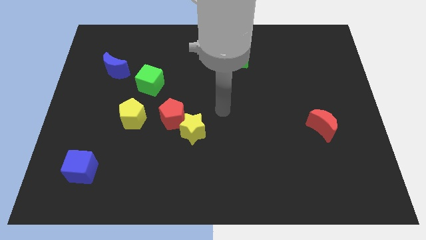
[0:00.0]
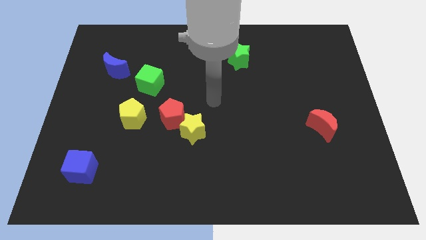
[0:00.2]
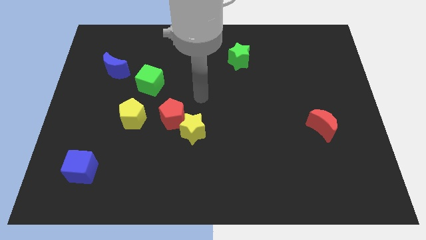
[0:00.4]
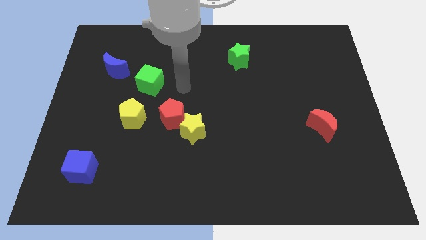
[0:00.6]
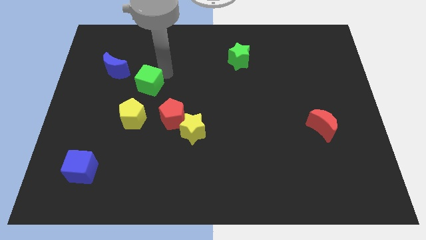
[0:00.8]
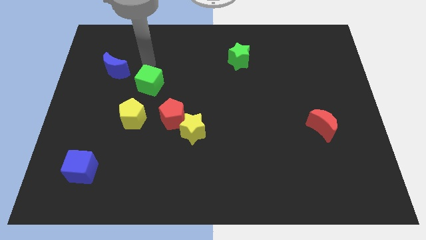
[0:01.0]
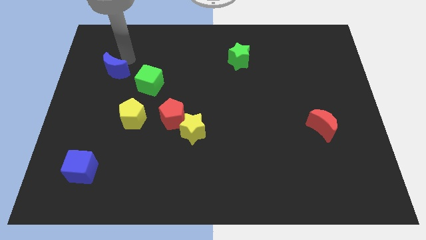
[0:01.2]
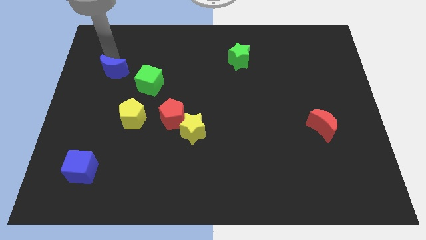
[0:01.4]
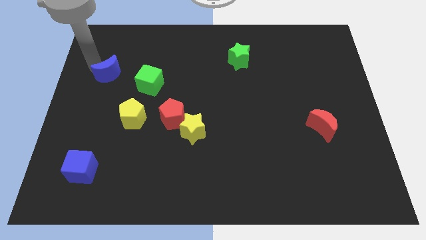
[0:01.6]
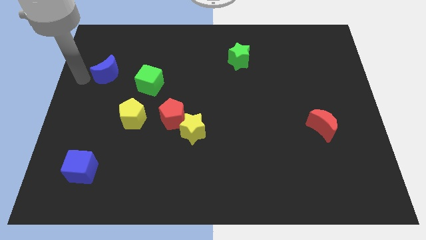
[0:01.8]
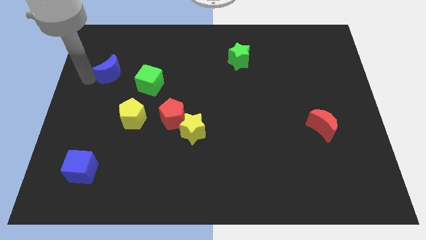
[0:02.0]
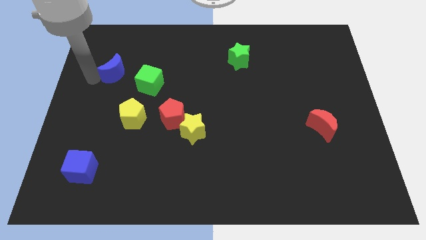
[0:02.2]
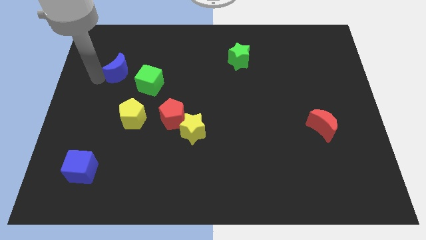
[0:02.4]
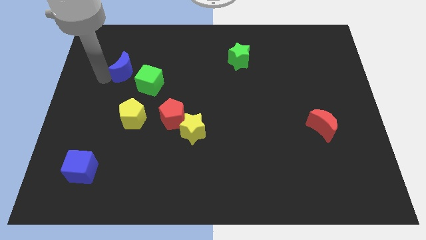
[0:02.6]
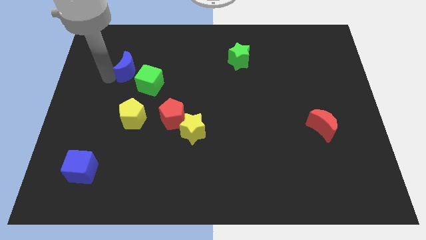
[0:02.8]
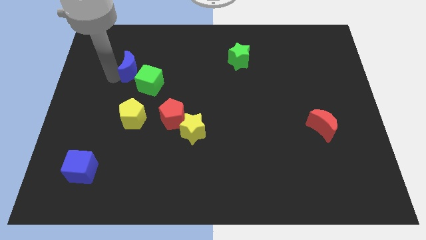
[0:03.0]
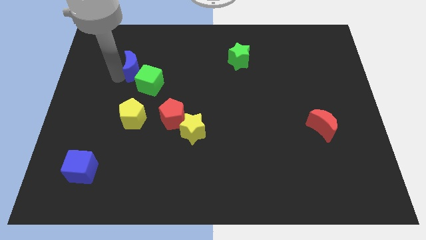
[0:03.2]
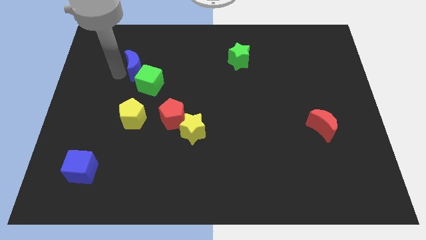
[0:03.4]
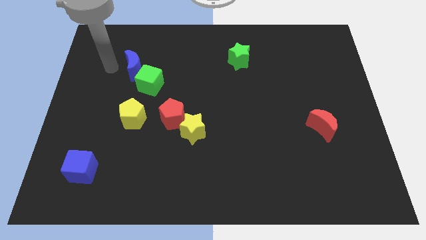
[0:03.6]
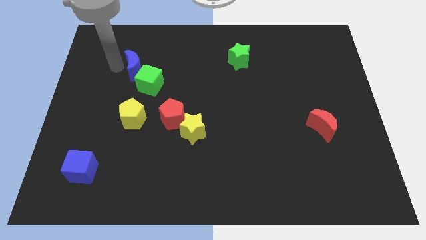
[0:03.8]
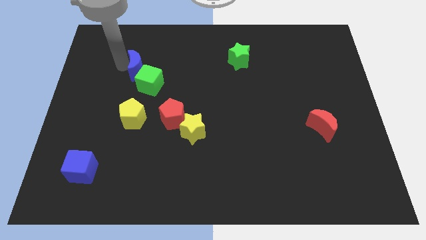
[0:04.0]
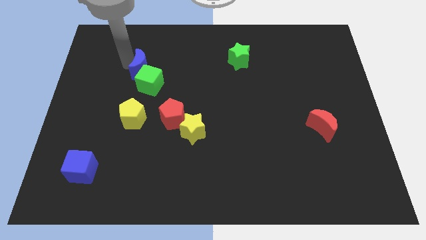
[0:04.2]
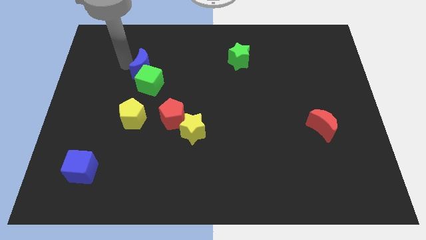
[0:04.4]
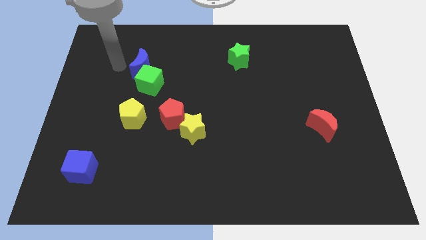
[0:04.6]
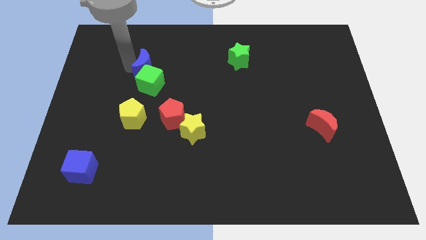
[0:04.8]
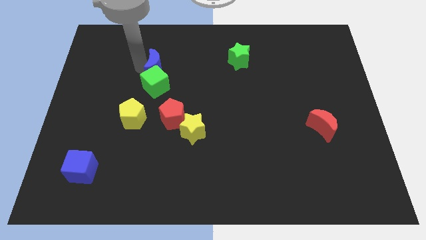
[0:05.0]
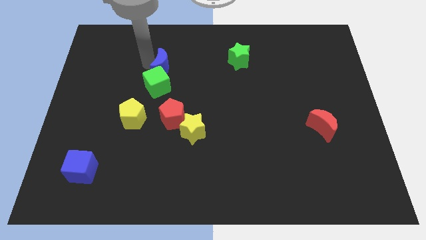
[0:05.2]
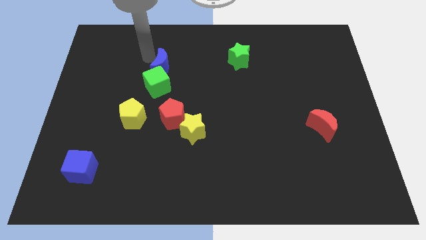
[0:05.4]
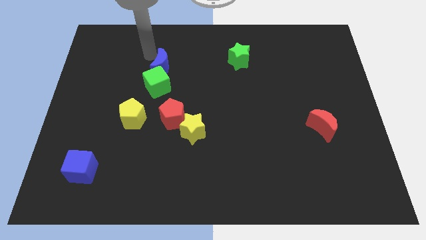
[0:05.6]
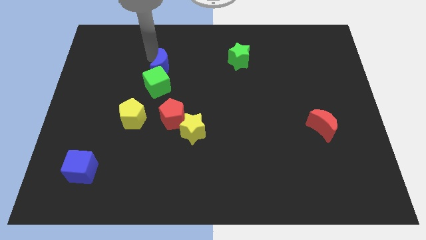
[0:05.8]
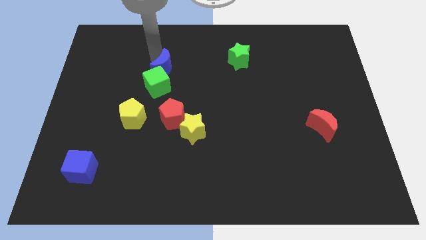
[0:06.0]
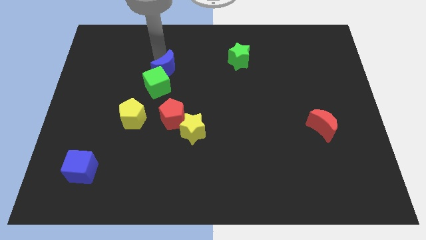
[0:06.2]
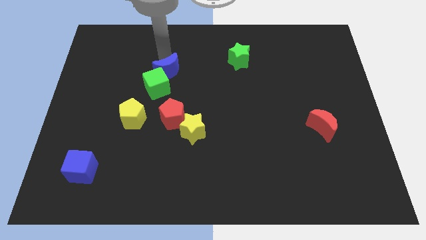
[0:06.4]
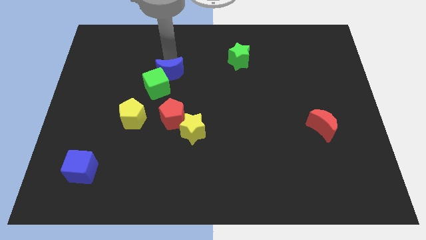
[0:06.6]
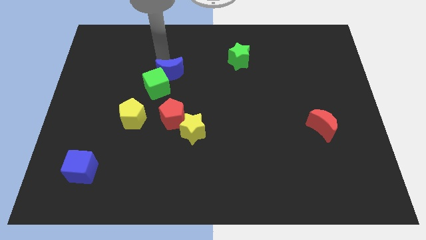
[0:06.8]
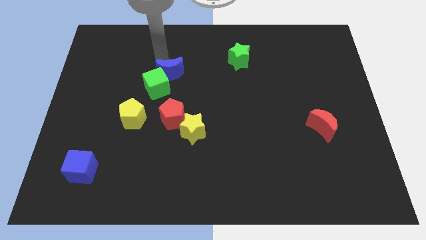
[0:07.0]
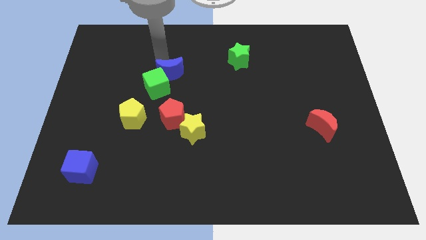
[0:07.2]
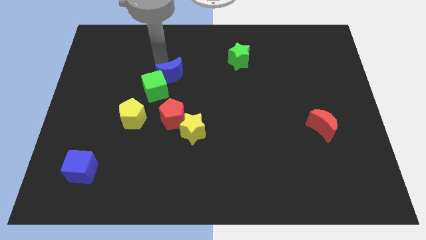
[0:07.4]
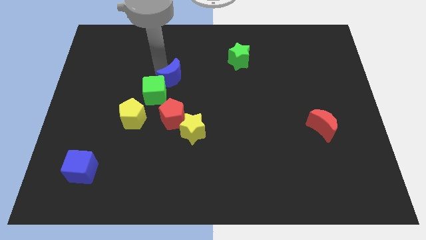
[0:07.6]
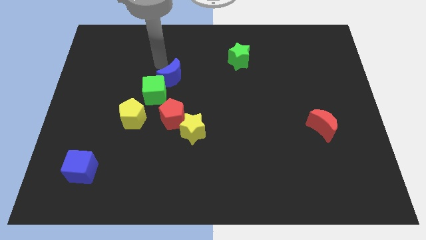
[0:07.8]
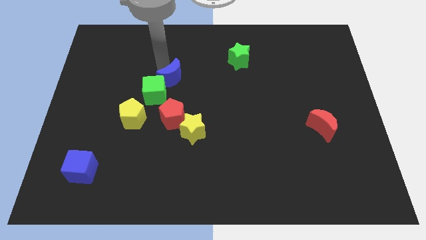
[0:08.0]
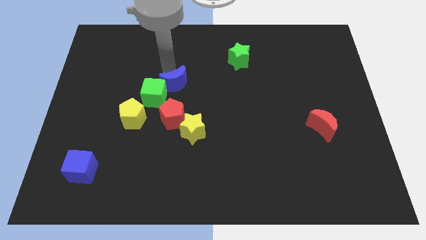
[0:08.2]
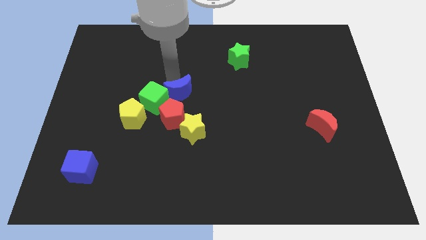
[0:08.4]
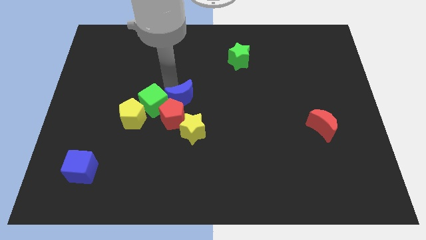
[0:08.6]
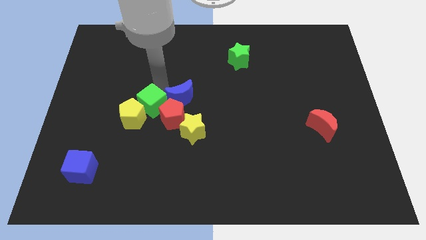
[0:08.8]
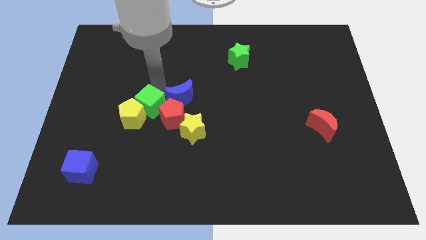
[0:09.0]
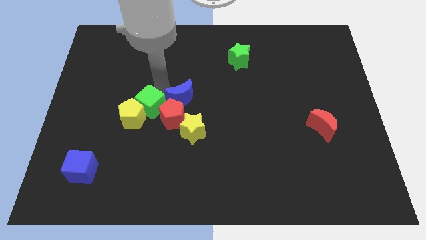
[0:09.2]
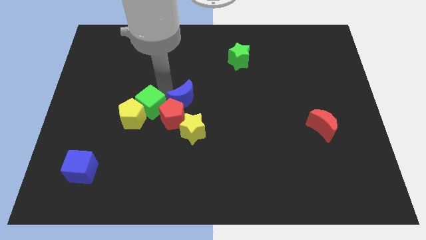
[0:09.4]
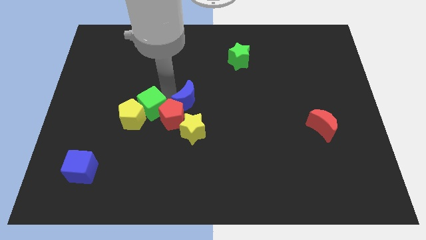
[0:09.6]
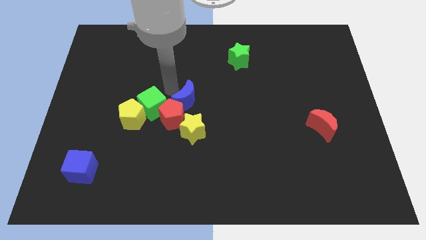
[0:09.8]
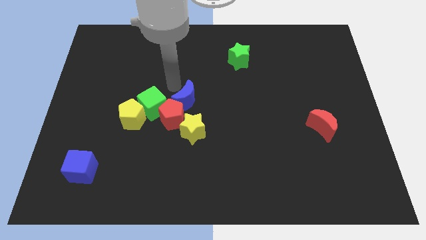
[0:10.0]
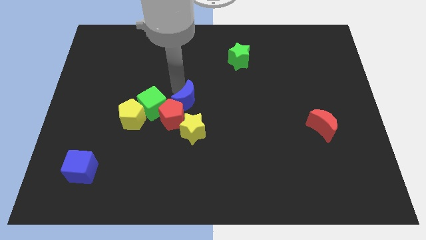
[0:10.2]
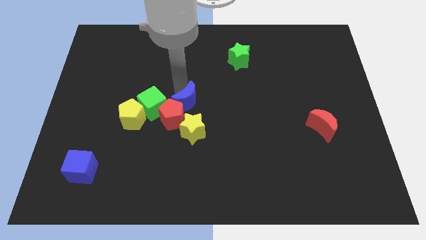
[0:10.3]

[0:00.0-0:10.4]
move the blue moon to the right side of the yellow pentagon

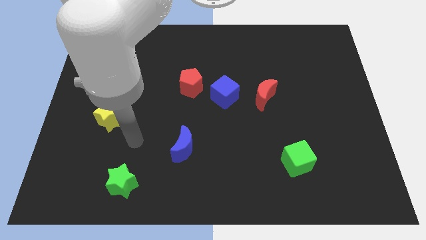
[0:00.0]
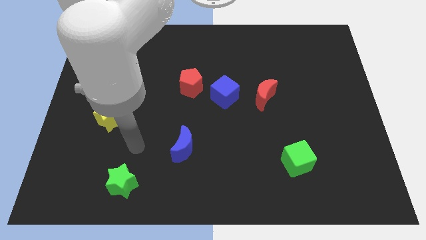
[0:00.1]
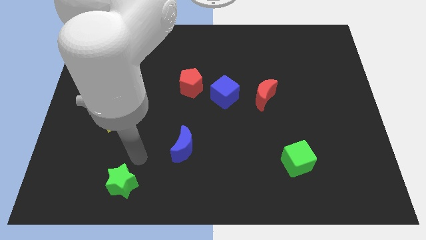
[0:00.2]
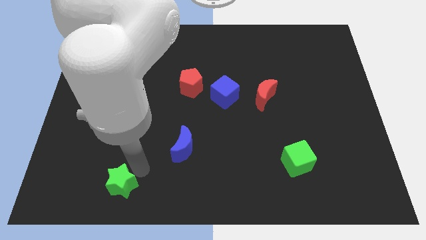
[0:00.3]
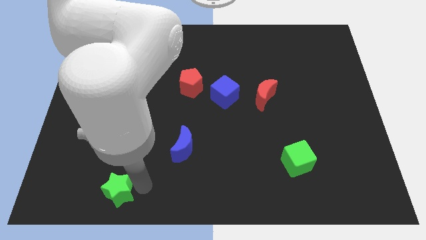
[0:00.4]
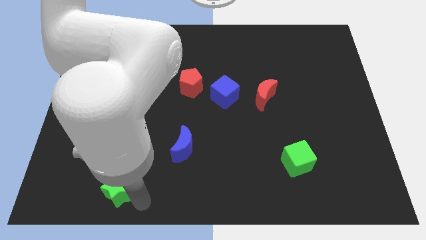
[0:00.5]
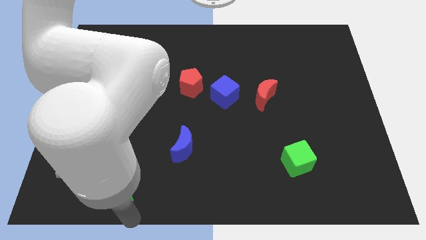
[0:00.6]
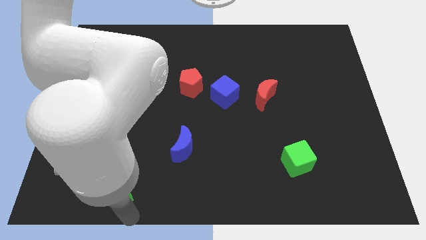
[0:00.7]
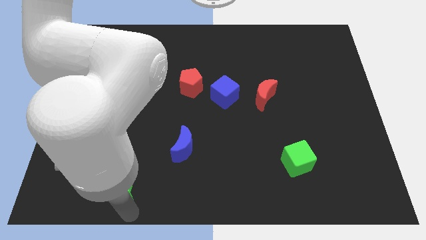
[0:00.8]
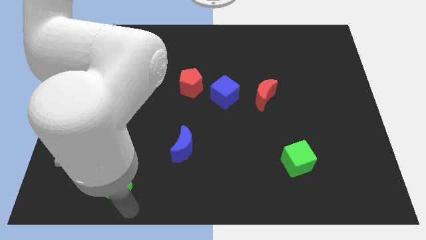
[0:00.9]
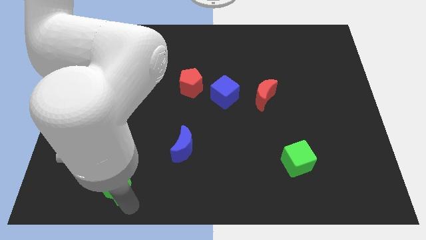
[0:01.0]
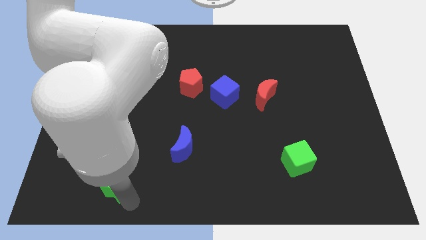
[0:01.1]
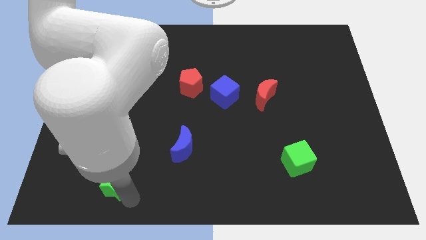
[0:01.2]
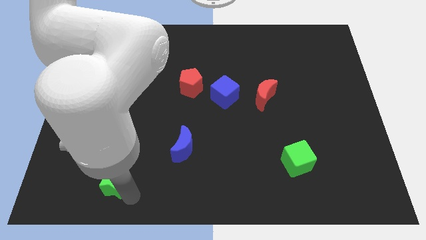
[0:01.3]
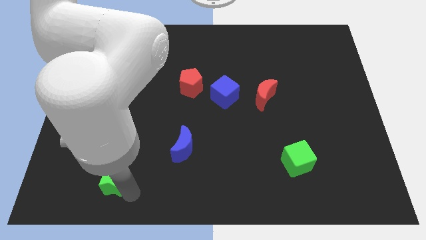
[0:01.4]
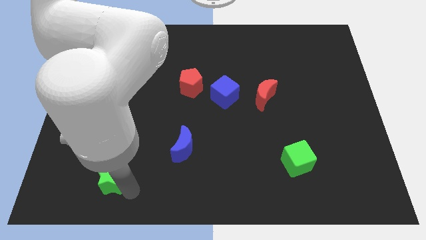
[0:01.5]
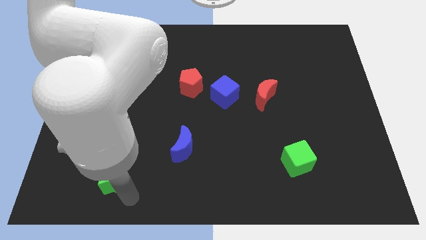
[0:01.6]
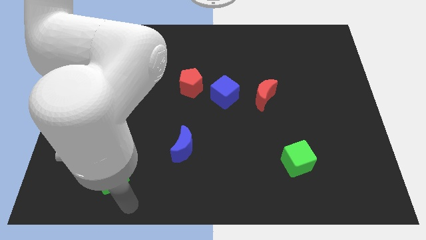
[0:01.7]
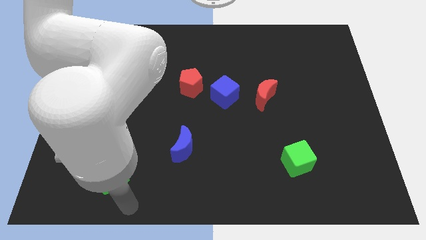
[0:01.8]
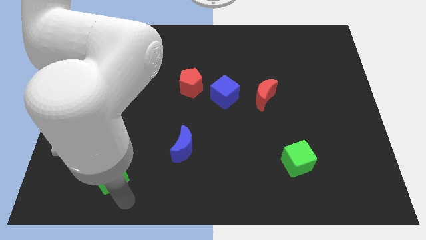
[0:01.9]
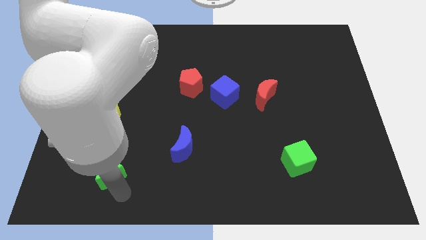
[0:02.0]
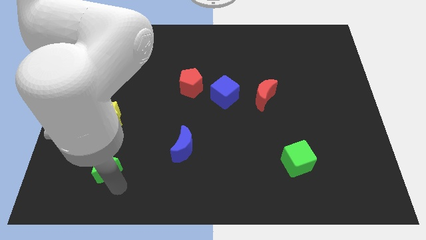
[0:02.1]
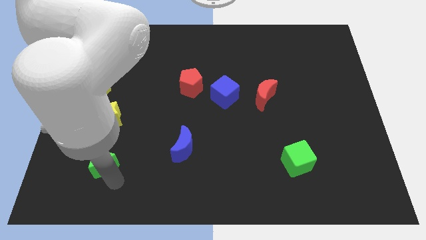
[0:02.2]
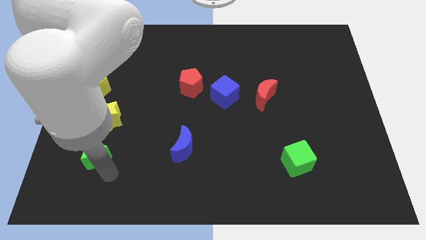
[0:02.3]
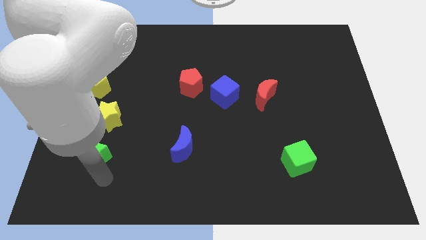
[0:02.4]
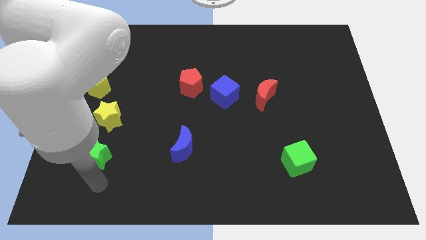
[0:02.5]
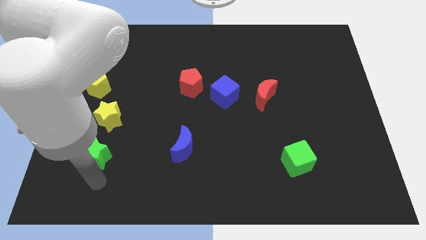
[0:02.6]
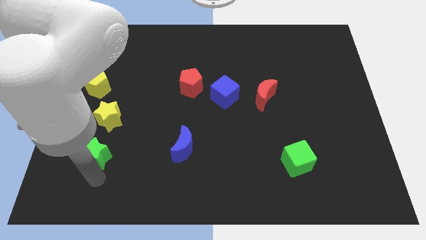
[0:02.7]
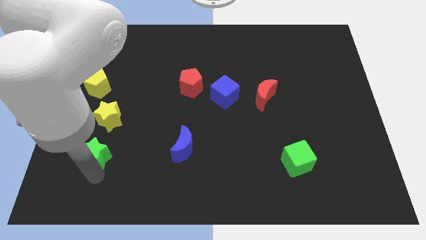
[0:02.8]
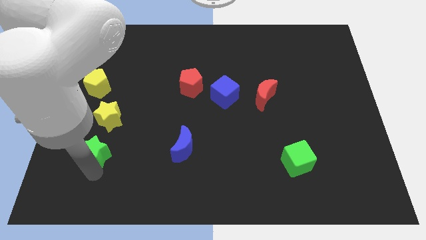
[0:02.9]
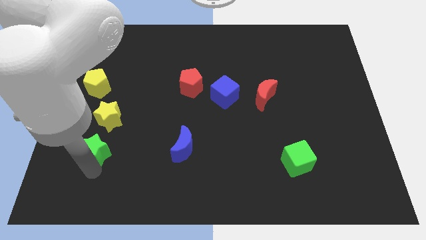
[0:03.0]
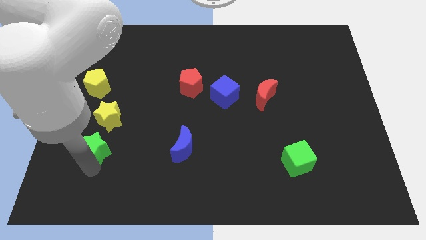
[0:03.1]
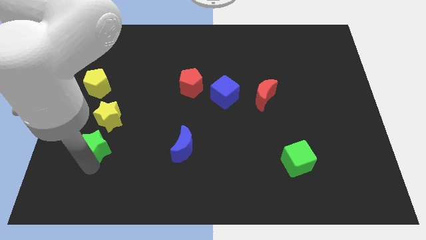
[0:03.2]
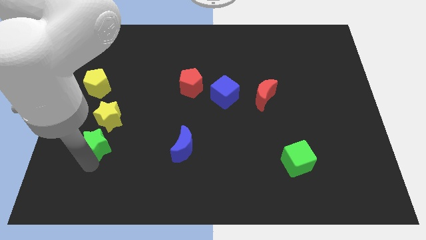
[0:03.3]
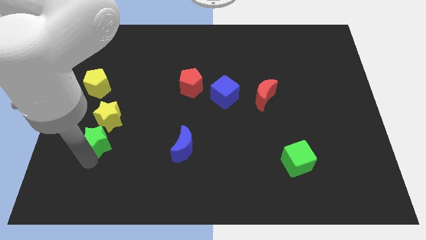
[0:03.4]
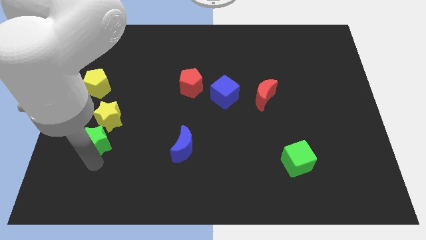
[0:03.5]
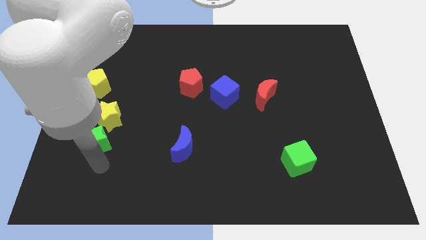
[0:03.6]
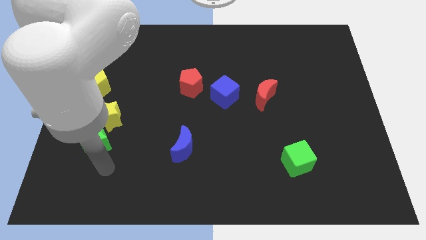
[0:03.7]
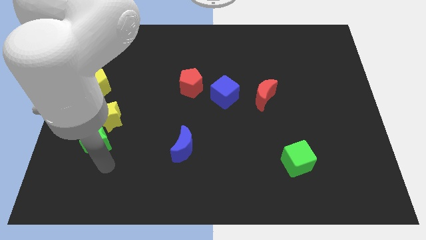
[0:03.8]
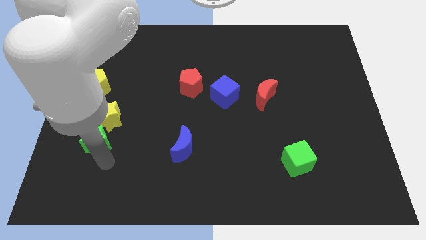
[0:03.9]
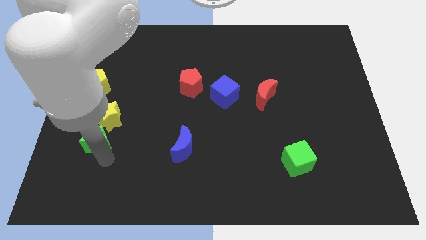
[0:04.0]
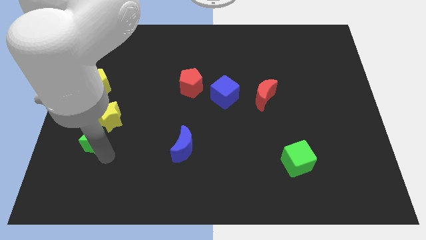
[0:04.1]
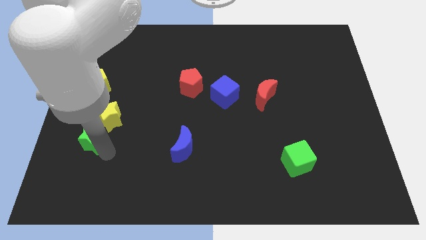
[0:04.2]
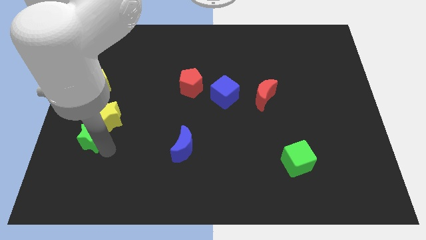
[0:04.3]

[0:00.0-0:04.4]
put the green star below the yellow pentagon
